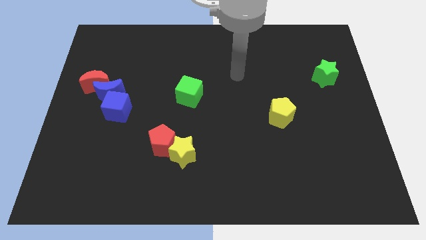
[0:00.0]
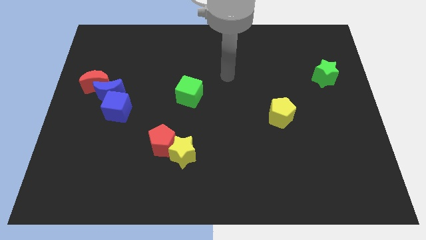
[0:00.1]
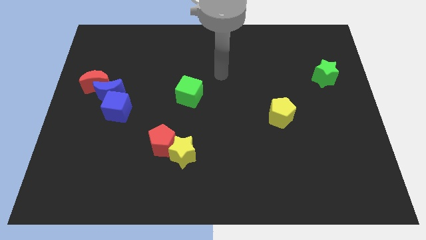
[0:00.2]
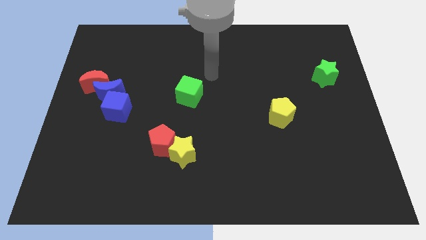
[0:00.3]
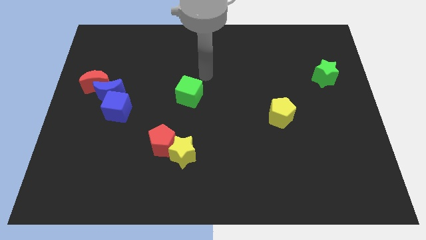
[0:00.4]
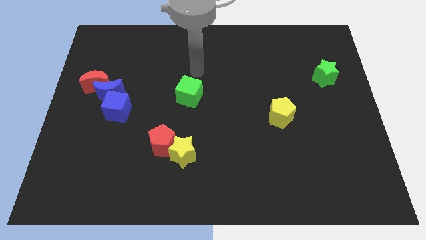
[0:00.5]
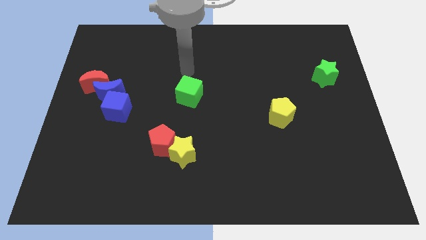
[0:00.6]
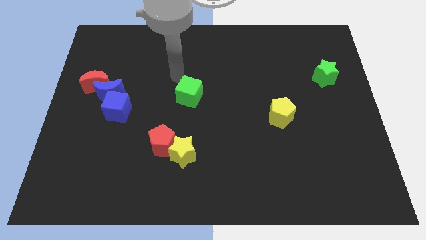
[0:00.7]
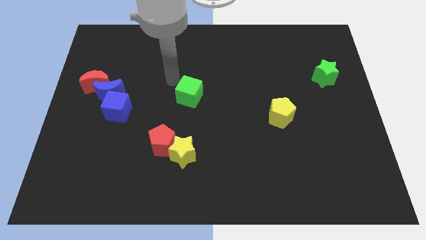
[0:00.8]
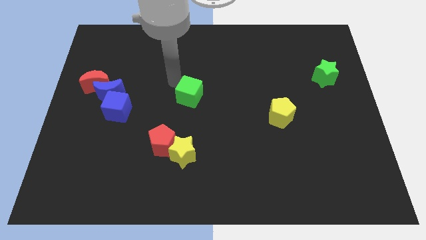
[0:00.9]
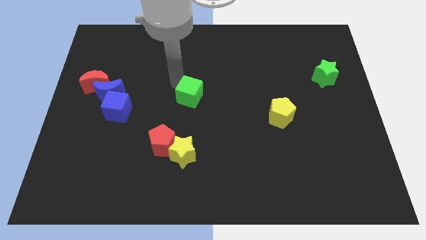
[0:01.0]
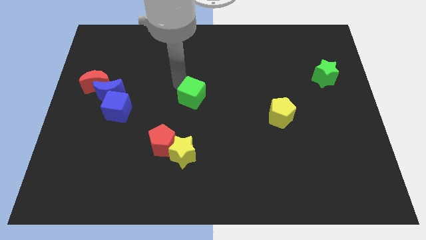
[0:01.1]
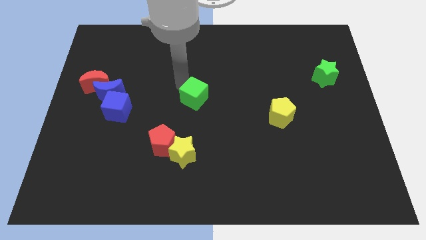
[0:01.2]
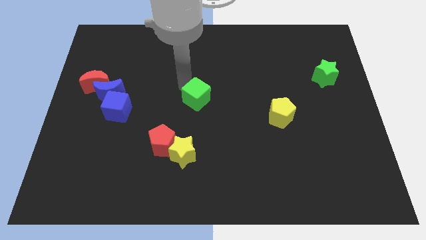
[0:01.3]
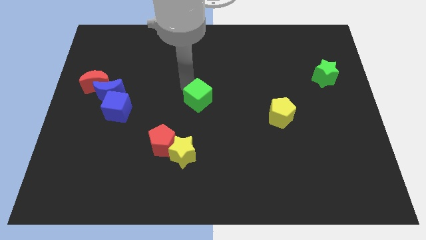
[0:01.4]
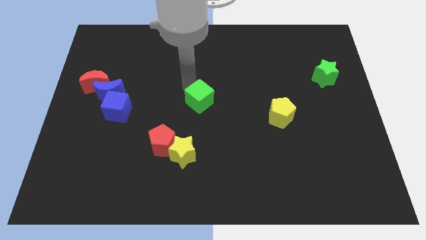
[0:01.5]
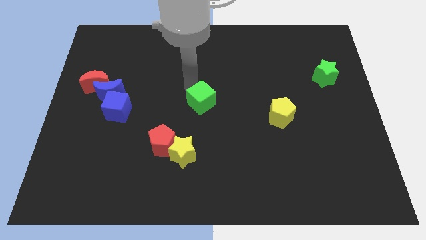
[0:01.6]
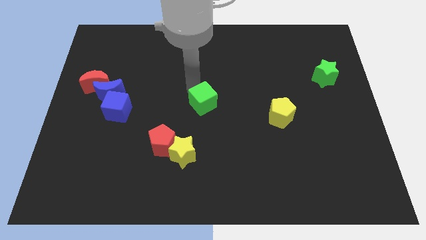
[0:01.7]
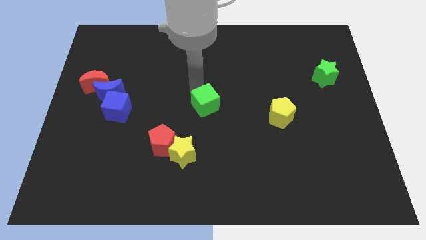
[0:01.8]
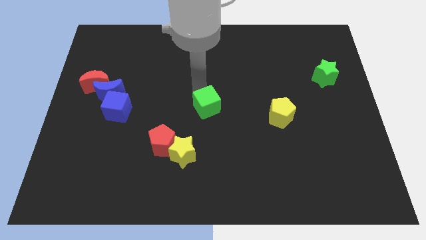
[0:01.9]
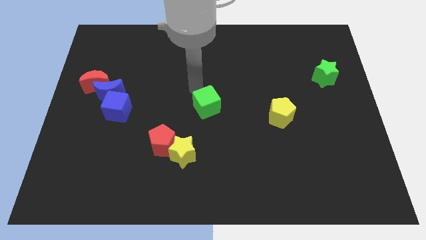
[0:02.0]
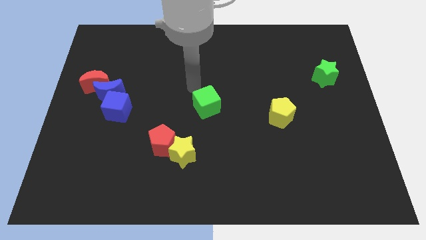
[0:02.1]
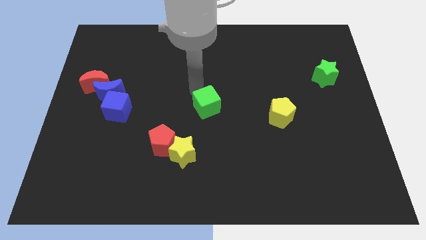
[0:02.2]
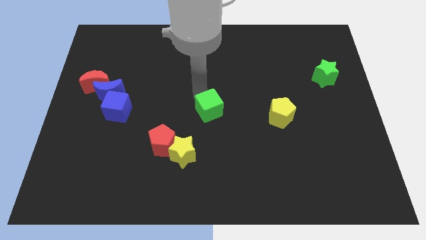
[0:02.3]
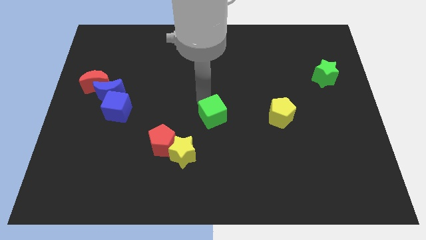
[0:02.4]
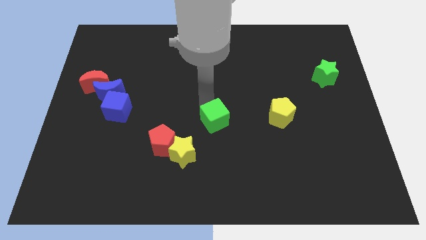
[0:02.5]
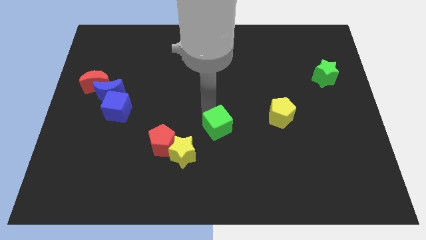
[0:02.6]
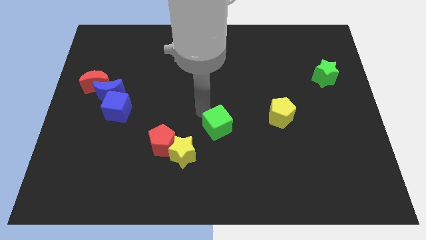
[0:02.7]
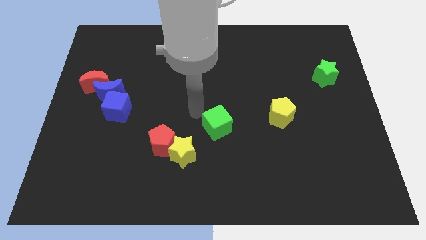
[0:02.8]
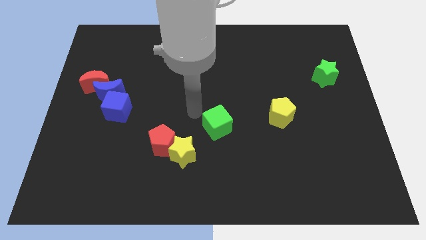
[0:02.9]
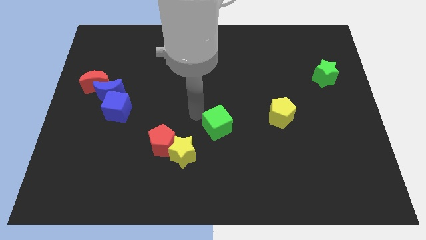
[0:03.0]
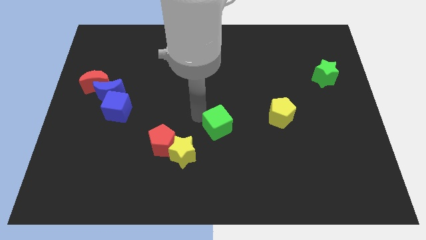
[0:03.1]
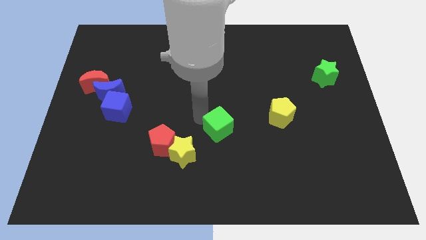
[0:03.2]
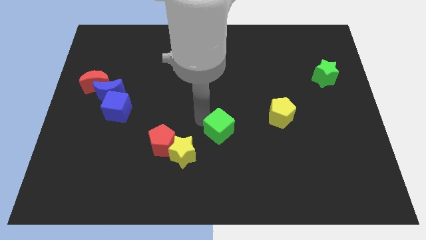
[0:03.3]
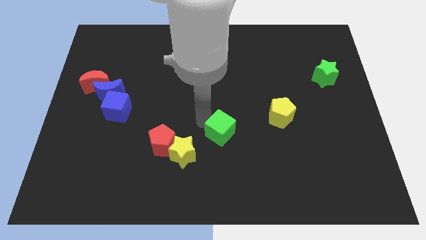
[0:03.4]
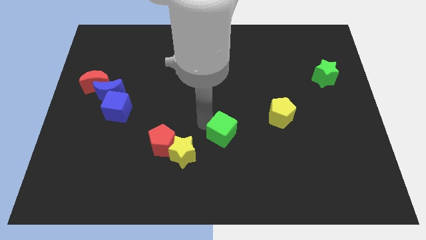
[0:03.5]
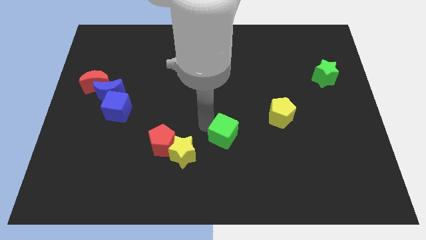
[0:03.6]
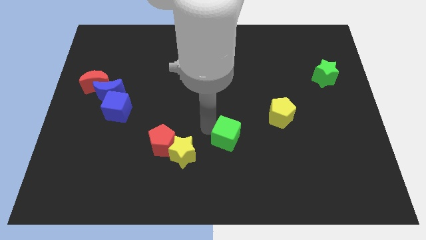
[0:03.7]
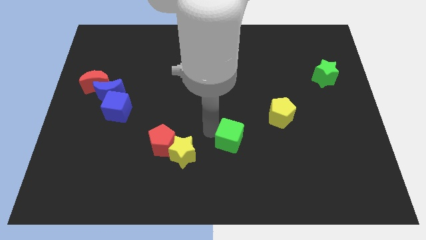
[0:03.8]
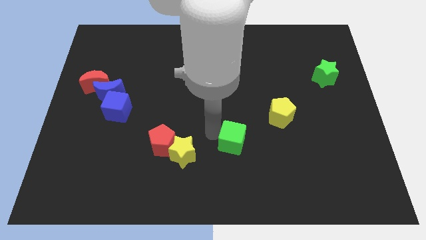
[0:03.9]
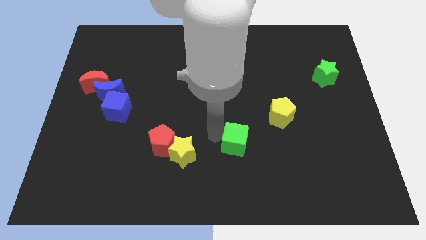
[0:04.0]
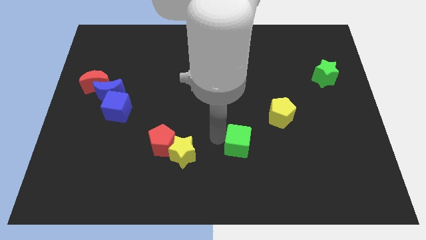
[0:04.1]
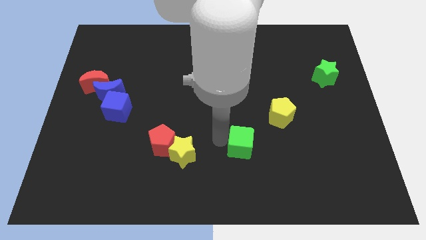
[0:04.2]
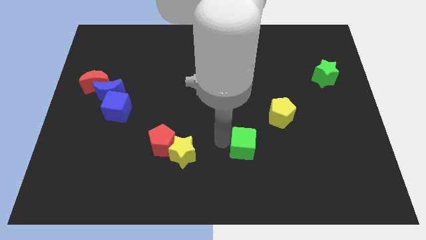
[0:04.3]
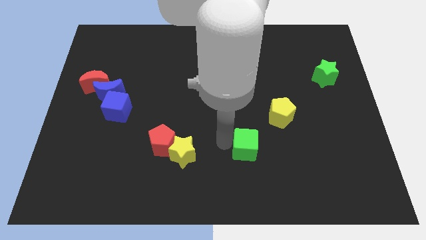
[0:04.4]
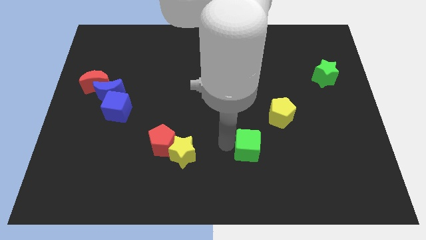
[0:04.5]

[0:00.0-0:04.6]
push the green cube diagonally down and to the right

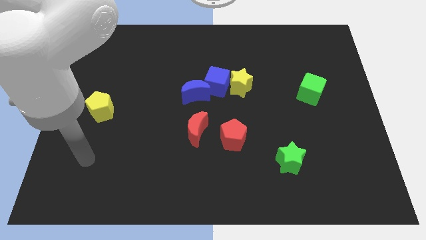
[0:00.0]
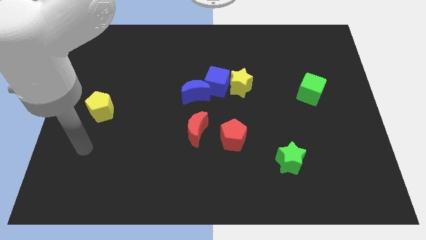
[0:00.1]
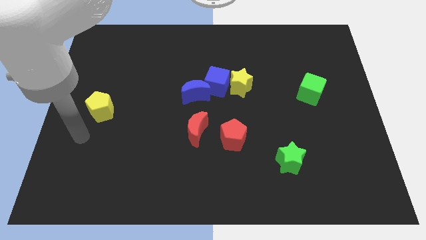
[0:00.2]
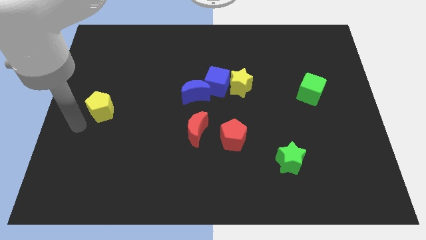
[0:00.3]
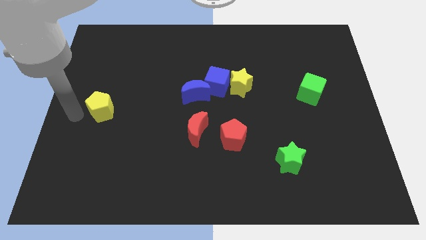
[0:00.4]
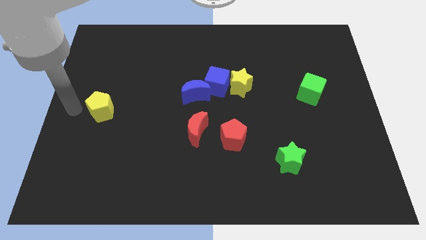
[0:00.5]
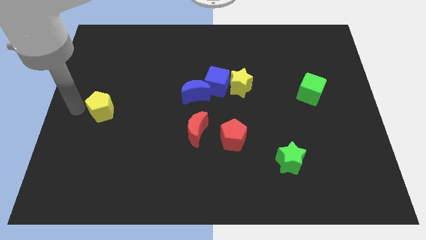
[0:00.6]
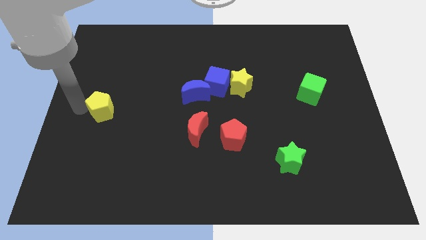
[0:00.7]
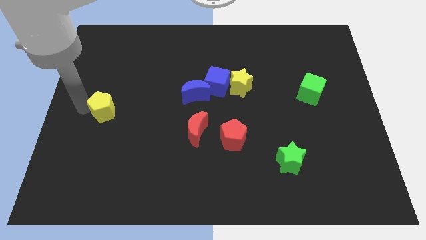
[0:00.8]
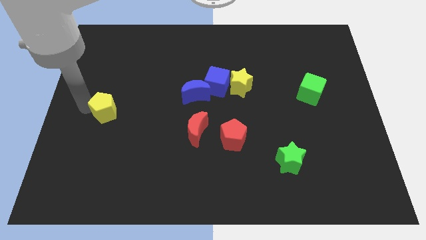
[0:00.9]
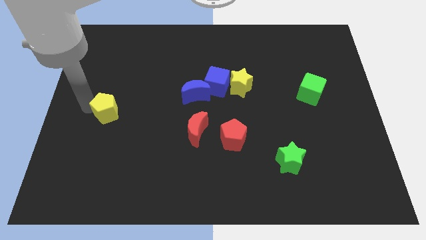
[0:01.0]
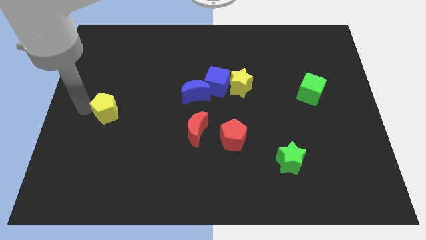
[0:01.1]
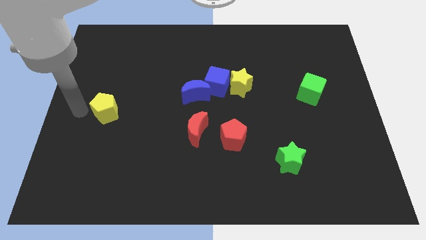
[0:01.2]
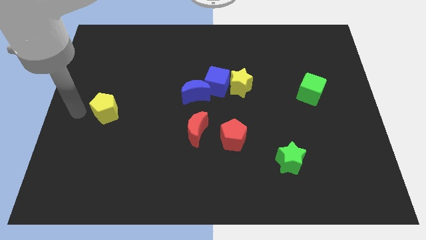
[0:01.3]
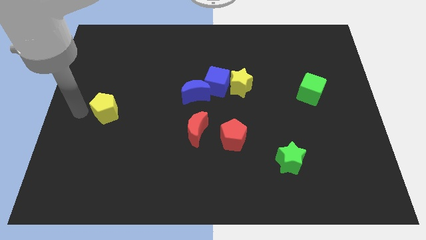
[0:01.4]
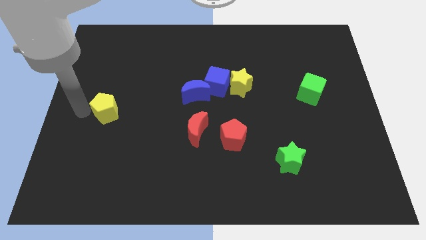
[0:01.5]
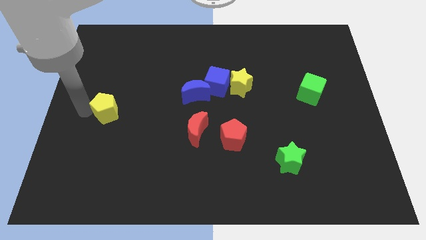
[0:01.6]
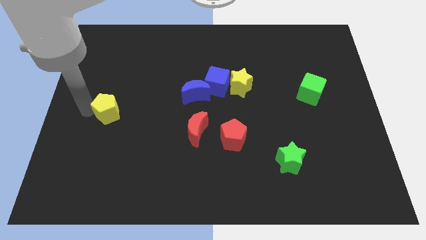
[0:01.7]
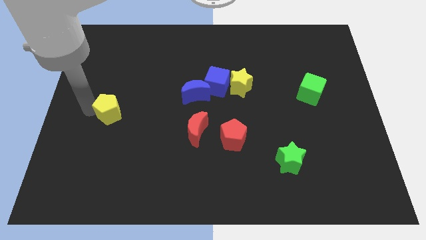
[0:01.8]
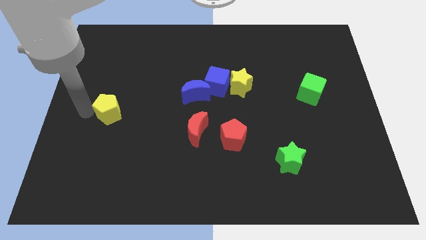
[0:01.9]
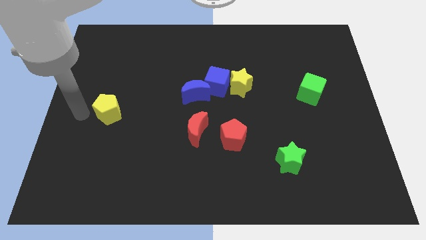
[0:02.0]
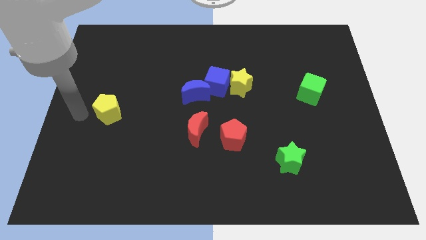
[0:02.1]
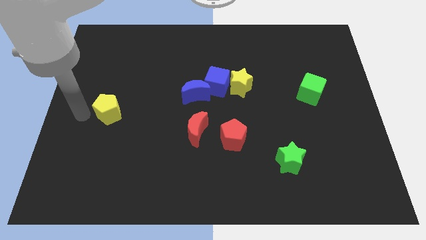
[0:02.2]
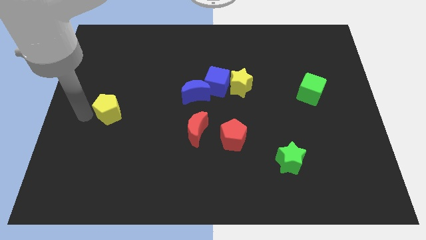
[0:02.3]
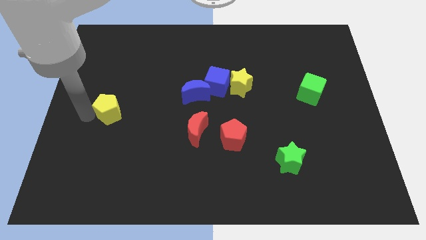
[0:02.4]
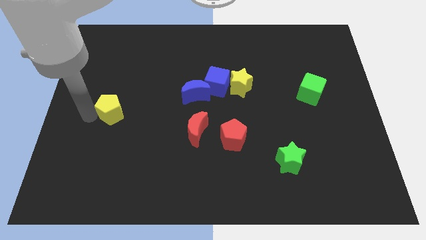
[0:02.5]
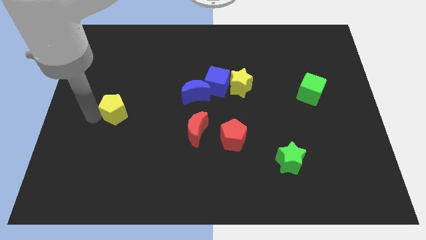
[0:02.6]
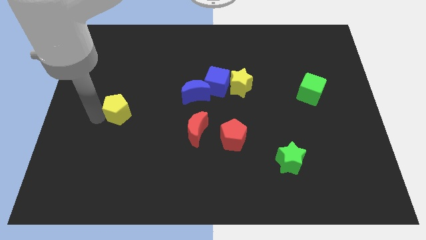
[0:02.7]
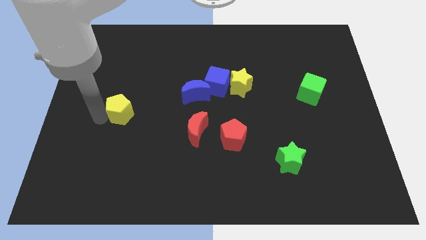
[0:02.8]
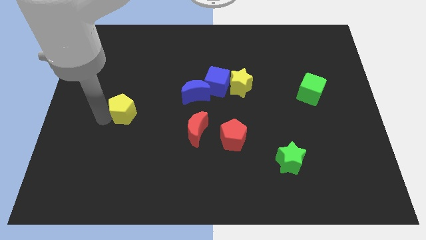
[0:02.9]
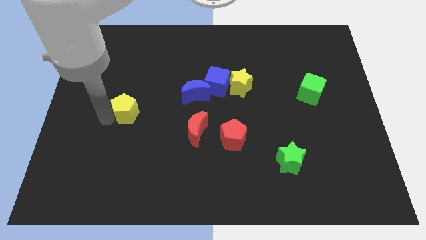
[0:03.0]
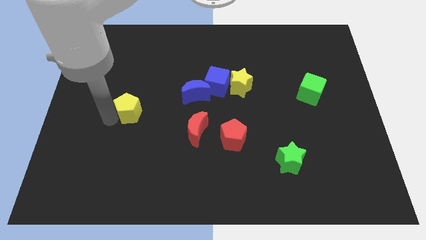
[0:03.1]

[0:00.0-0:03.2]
slide the yellow pentagon right slightly

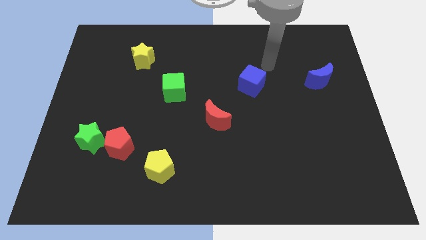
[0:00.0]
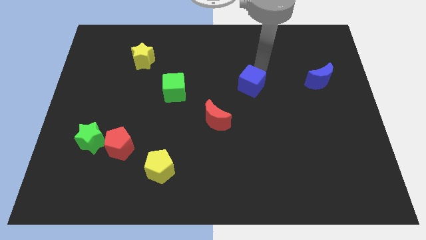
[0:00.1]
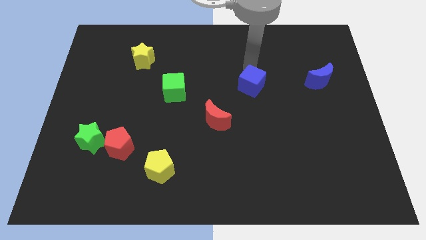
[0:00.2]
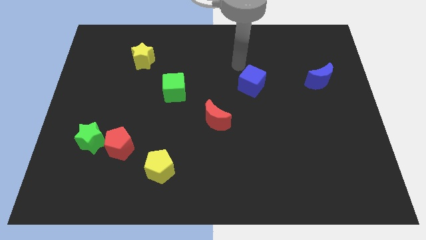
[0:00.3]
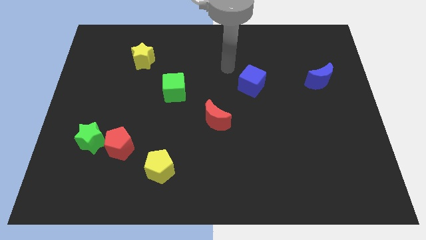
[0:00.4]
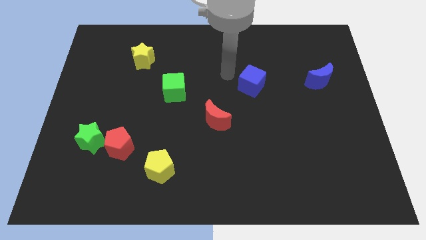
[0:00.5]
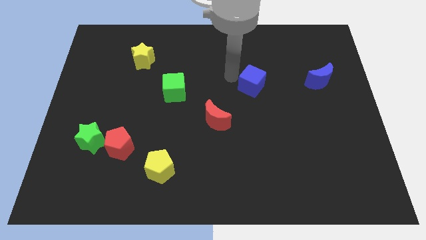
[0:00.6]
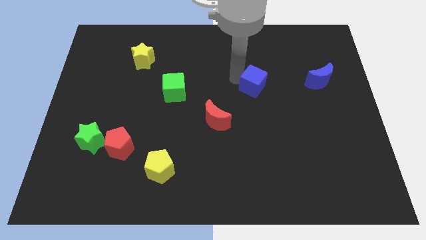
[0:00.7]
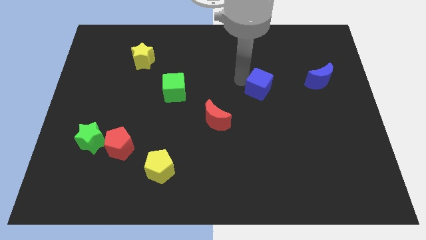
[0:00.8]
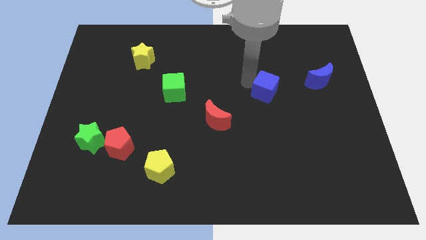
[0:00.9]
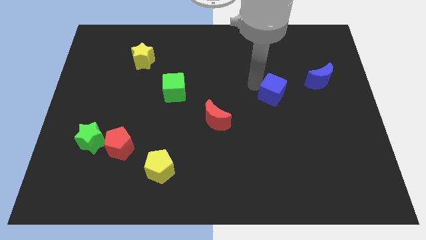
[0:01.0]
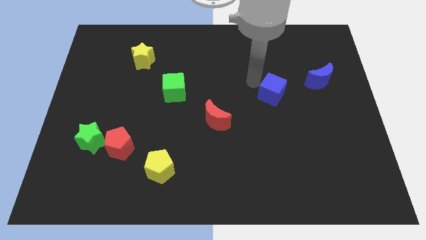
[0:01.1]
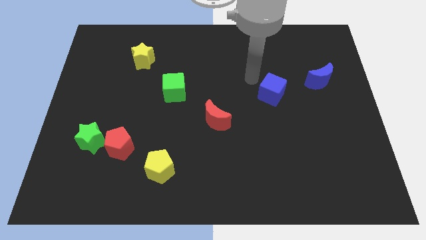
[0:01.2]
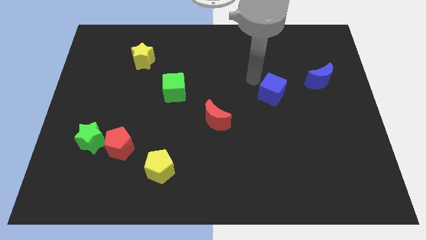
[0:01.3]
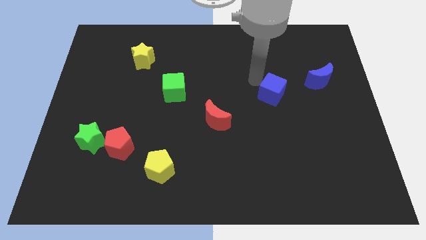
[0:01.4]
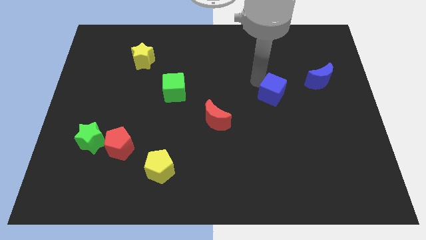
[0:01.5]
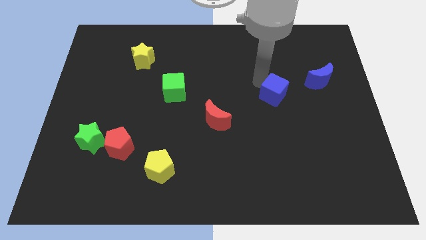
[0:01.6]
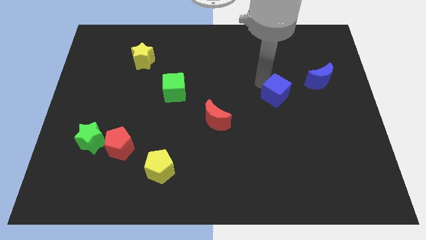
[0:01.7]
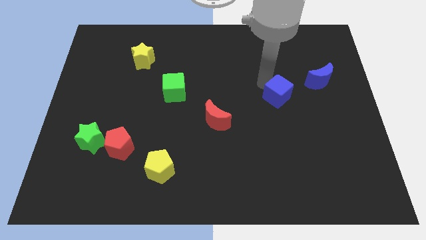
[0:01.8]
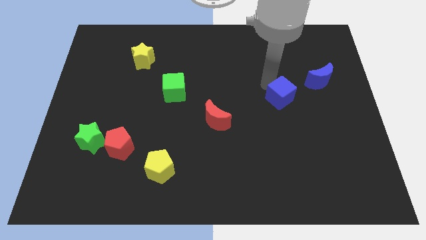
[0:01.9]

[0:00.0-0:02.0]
slide the blue cube down and right diagonally a little
